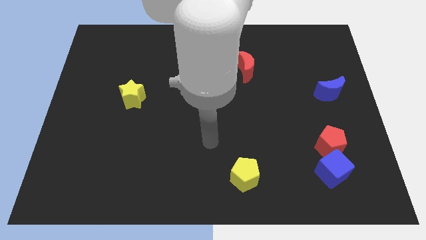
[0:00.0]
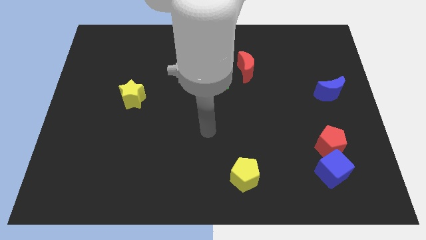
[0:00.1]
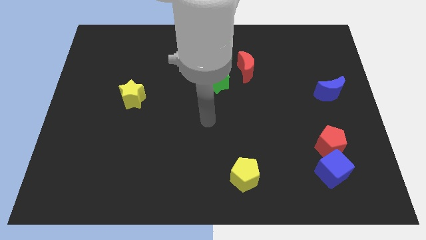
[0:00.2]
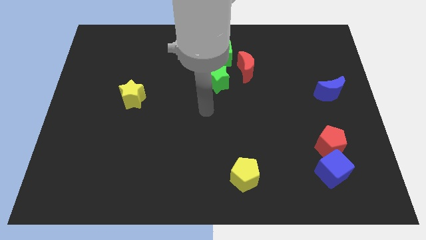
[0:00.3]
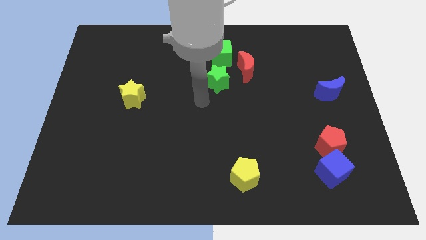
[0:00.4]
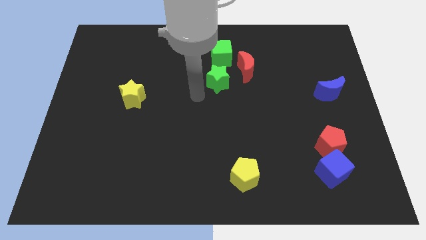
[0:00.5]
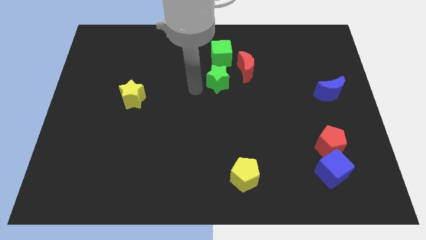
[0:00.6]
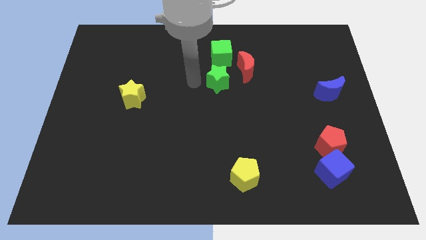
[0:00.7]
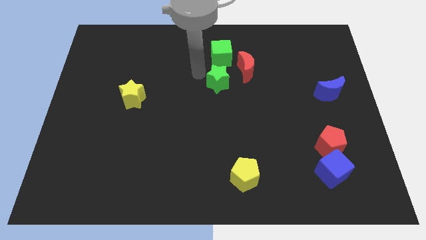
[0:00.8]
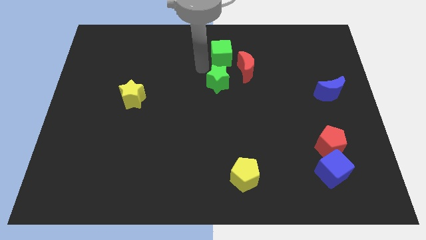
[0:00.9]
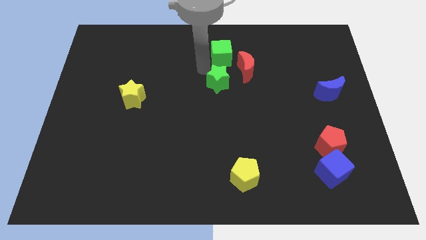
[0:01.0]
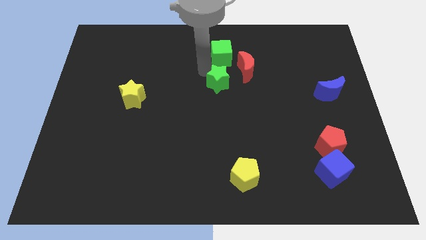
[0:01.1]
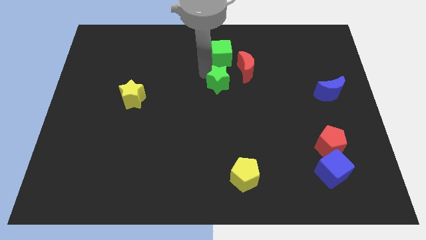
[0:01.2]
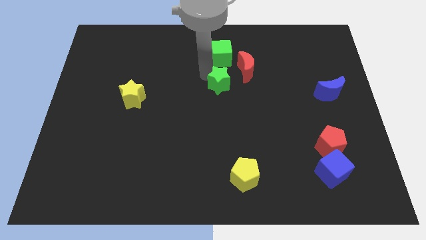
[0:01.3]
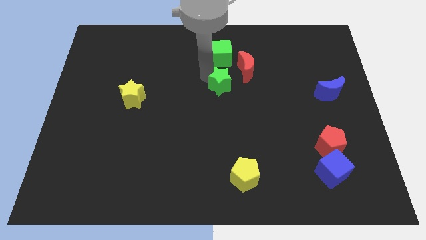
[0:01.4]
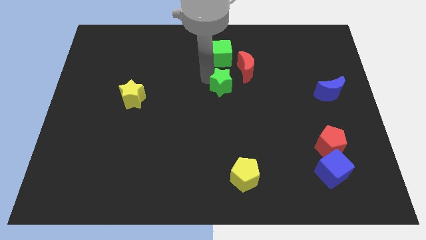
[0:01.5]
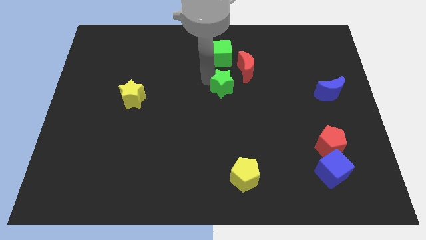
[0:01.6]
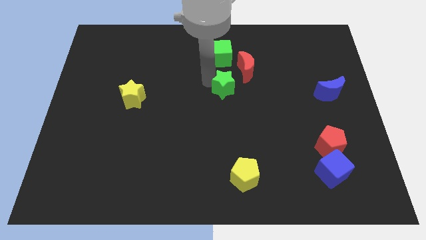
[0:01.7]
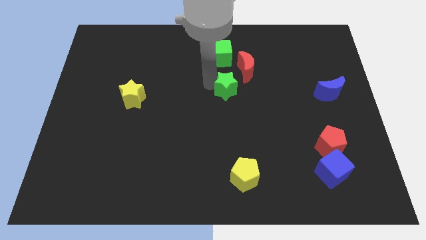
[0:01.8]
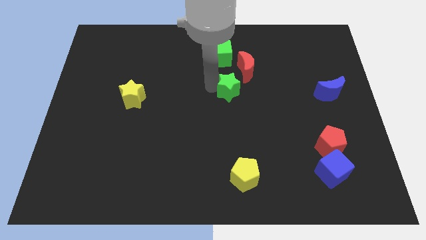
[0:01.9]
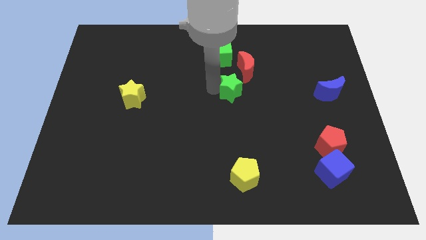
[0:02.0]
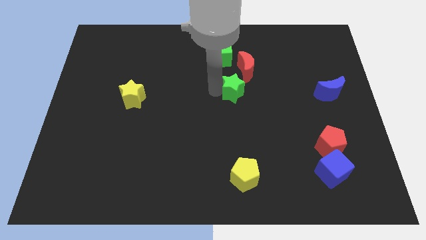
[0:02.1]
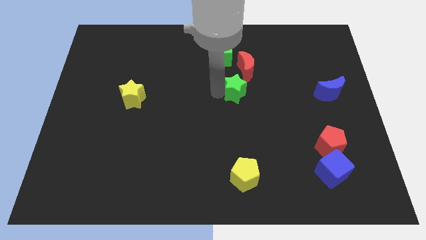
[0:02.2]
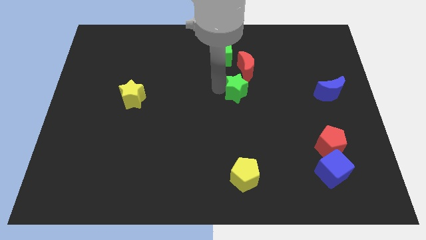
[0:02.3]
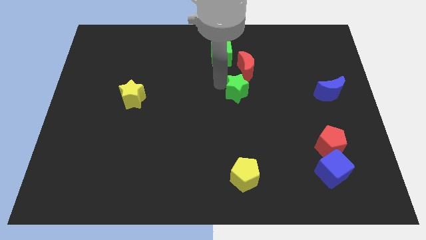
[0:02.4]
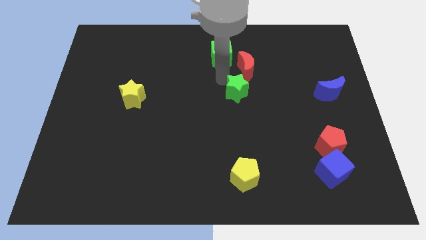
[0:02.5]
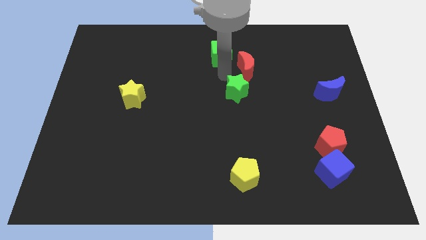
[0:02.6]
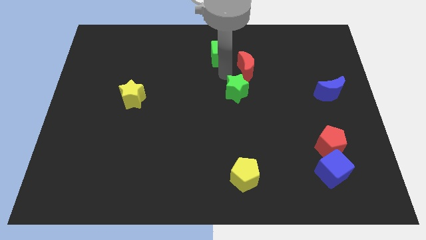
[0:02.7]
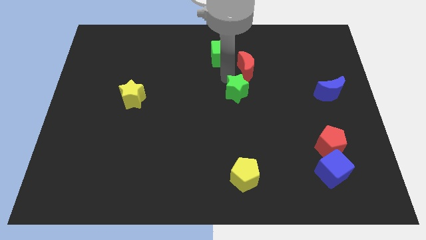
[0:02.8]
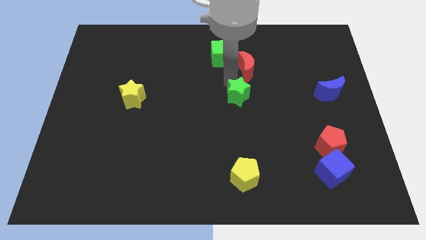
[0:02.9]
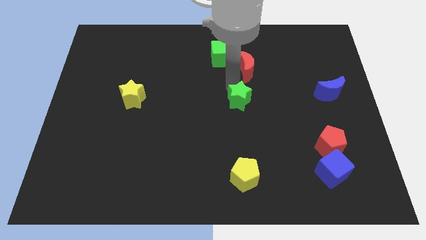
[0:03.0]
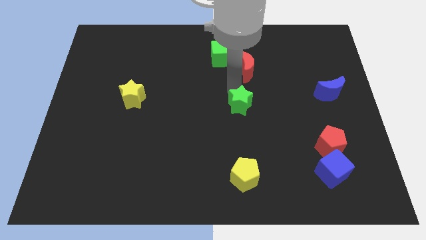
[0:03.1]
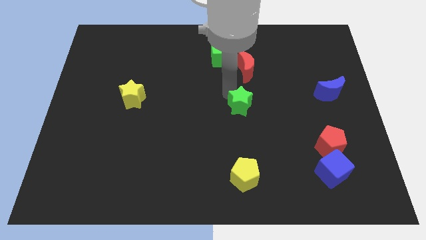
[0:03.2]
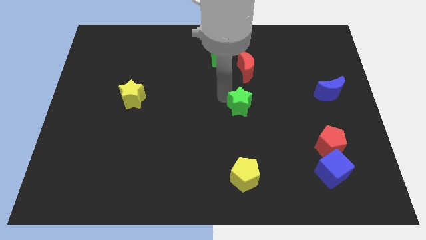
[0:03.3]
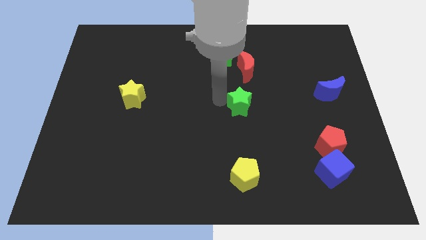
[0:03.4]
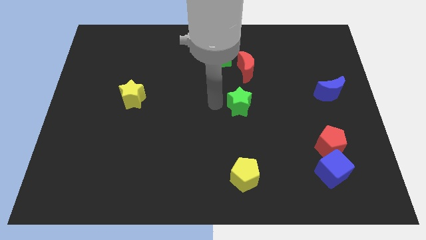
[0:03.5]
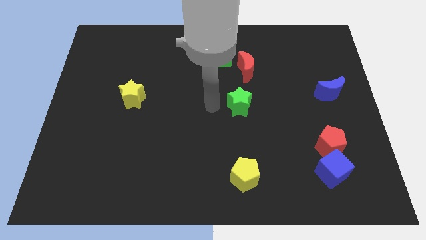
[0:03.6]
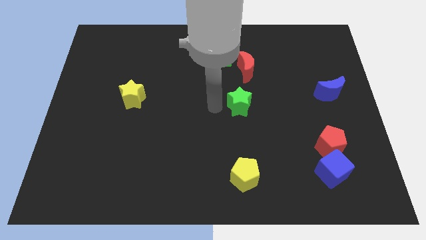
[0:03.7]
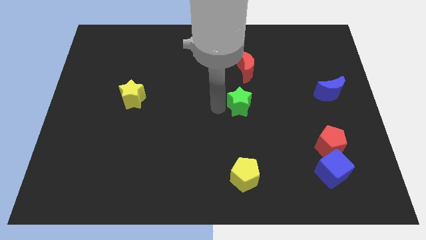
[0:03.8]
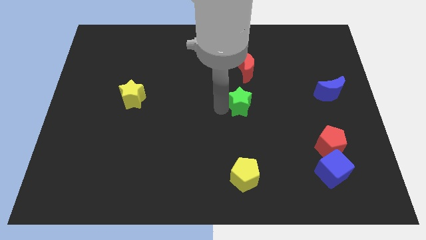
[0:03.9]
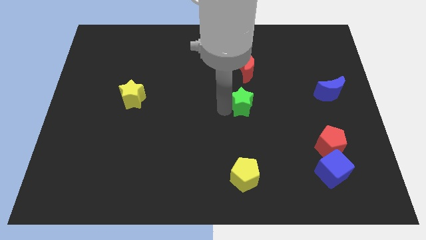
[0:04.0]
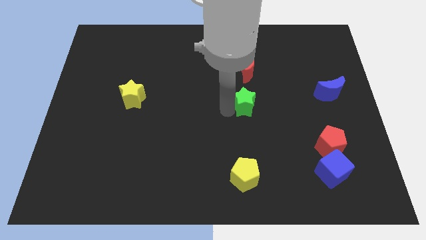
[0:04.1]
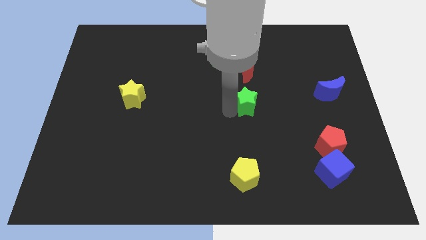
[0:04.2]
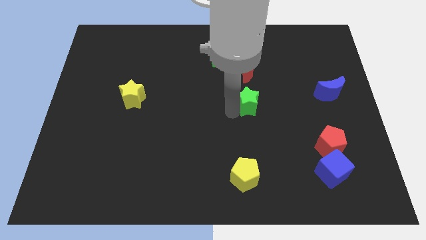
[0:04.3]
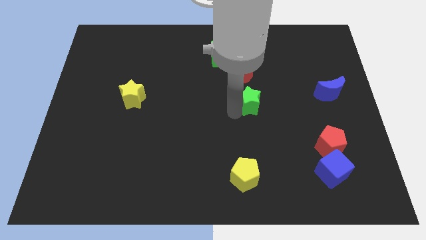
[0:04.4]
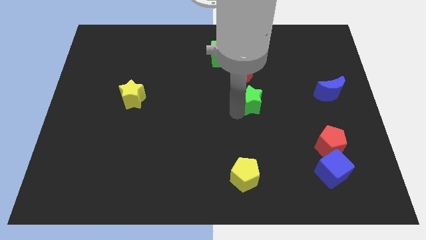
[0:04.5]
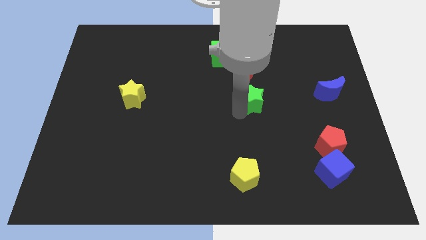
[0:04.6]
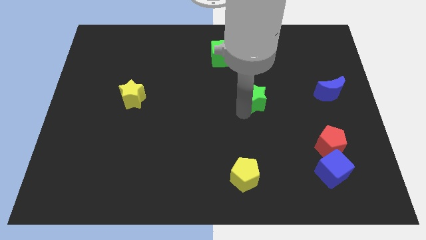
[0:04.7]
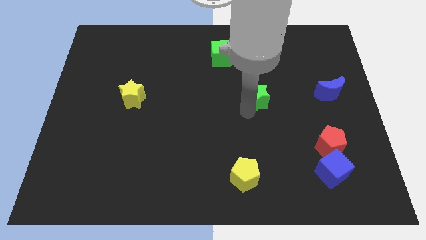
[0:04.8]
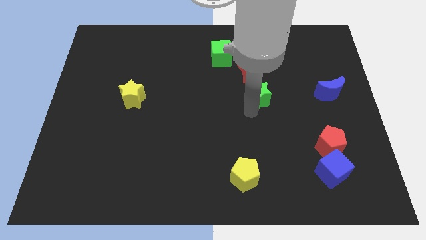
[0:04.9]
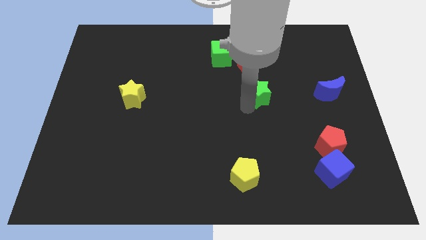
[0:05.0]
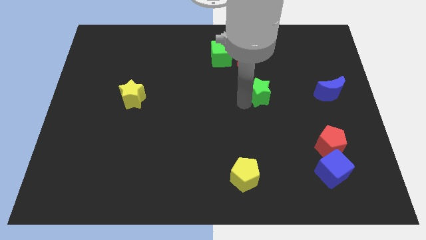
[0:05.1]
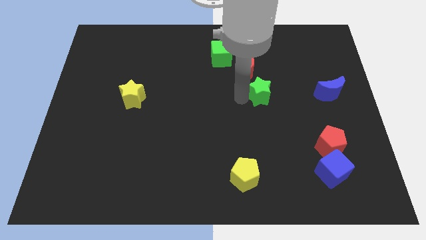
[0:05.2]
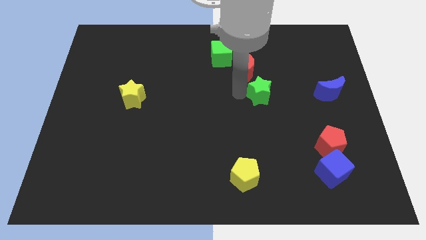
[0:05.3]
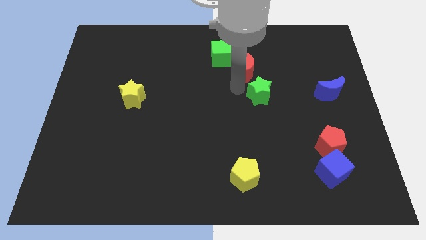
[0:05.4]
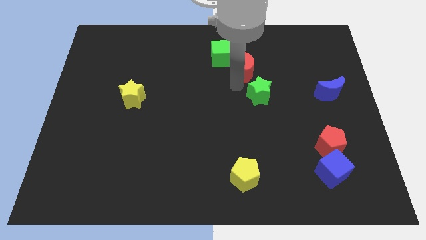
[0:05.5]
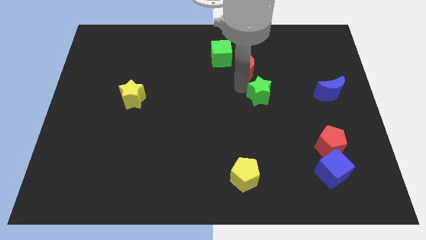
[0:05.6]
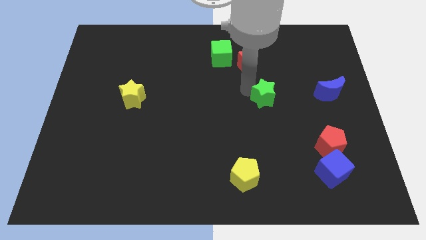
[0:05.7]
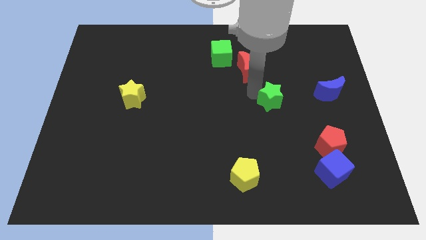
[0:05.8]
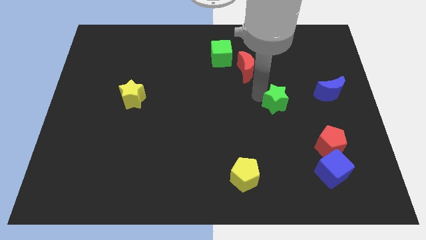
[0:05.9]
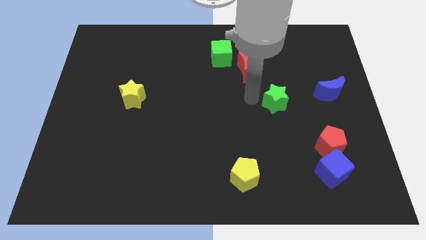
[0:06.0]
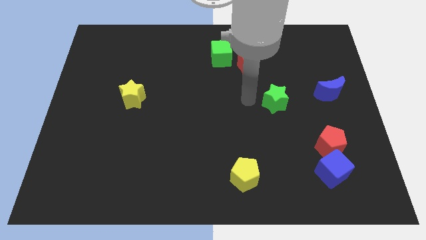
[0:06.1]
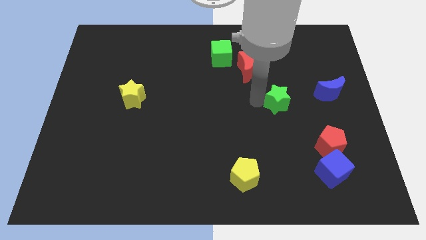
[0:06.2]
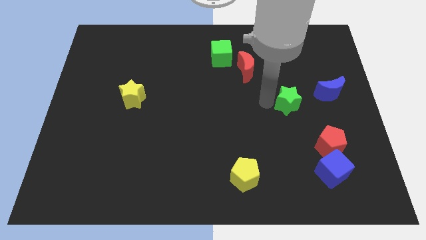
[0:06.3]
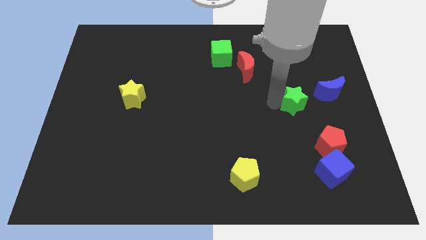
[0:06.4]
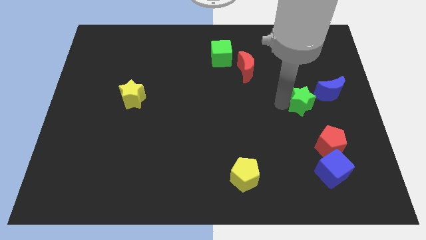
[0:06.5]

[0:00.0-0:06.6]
slide the green star above the red pentagon
